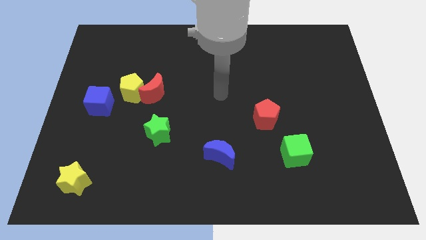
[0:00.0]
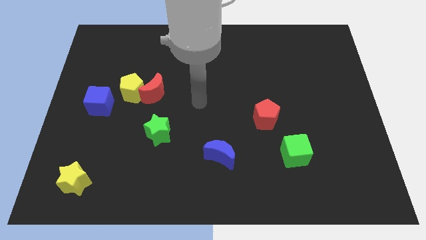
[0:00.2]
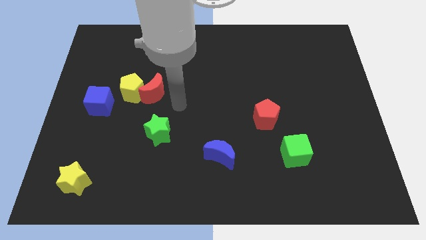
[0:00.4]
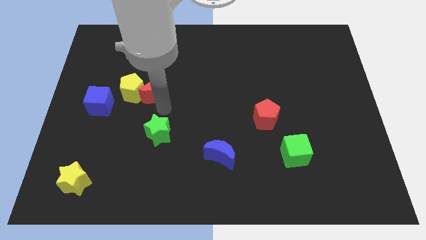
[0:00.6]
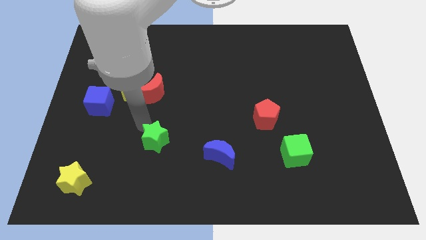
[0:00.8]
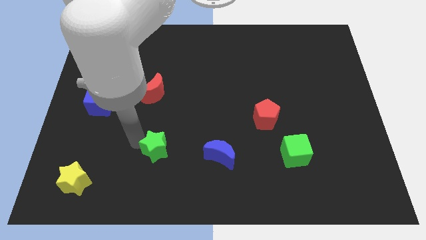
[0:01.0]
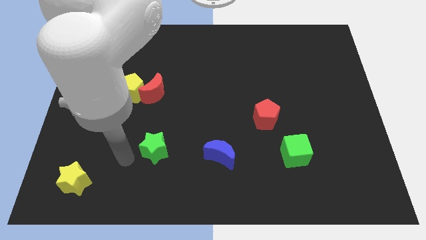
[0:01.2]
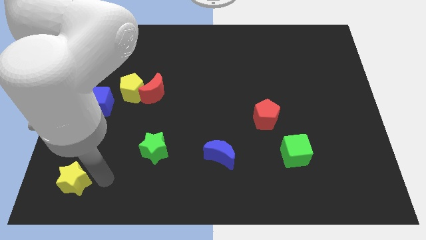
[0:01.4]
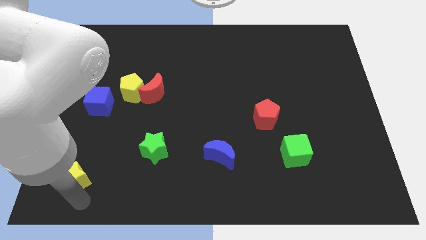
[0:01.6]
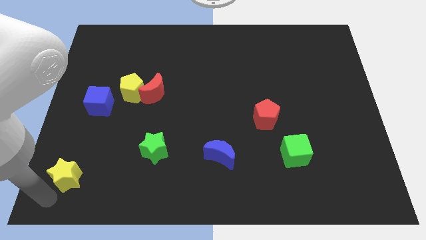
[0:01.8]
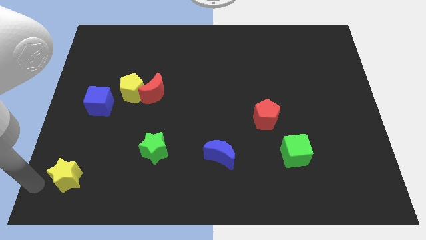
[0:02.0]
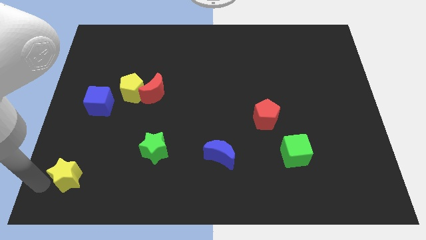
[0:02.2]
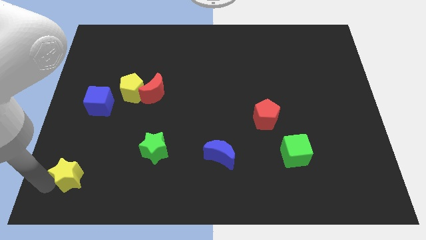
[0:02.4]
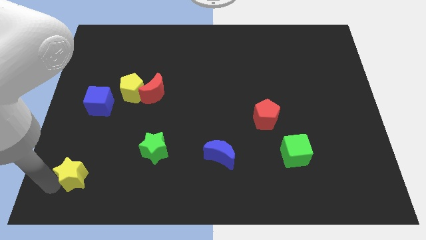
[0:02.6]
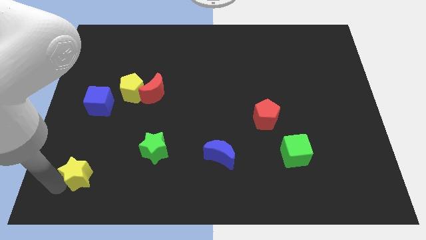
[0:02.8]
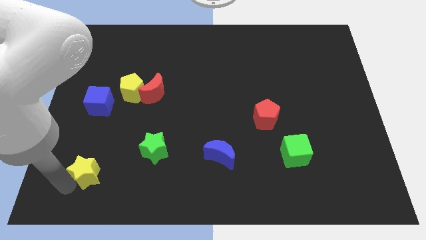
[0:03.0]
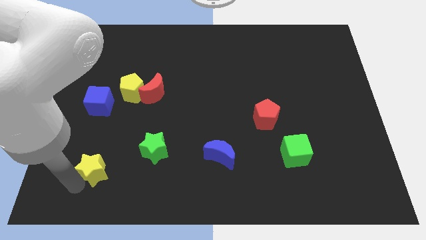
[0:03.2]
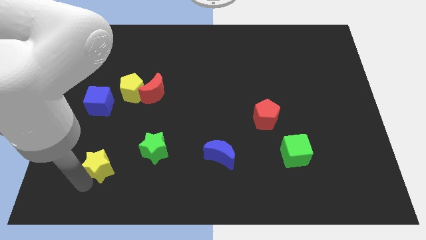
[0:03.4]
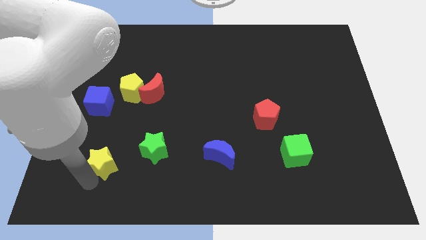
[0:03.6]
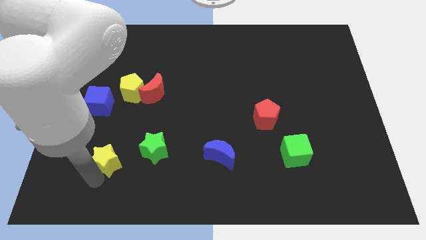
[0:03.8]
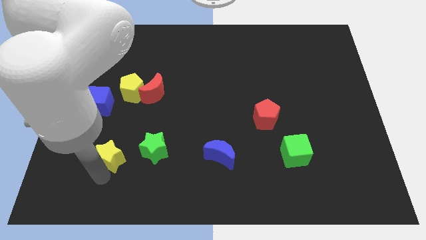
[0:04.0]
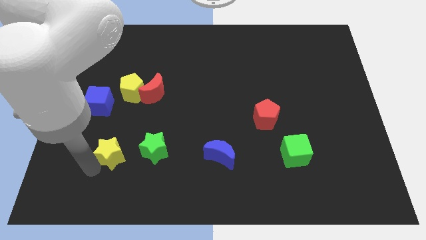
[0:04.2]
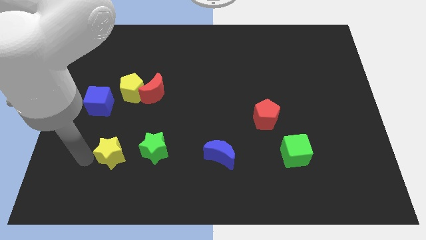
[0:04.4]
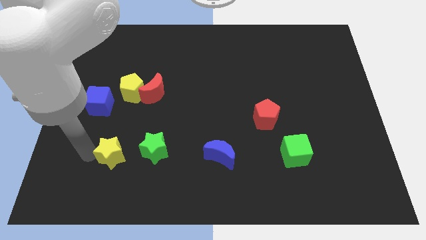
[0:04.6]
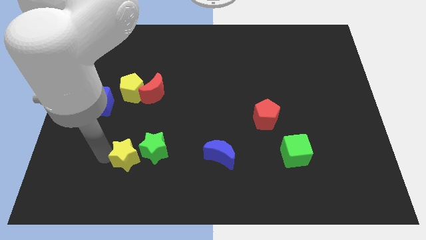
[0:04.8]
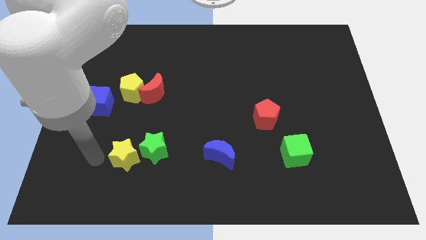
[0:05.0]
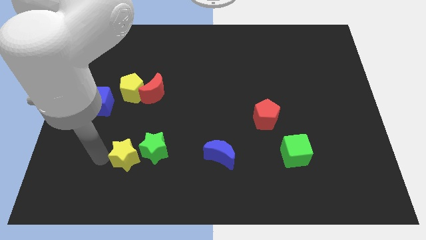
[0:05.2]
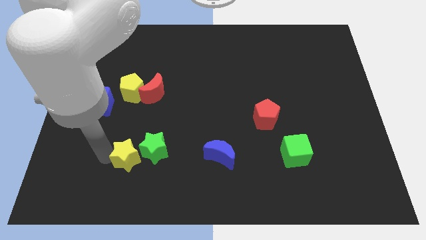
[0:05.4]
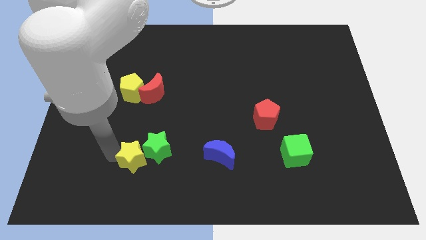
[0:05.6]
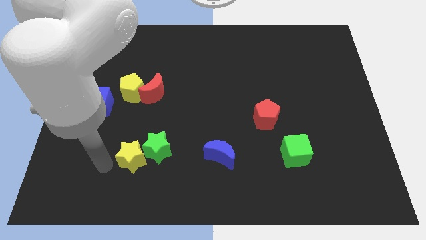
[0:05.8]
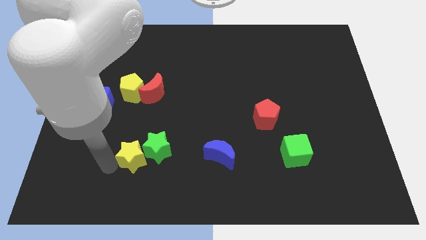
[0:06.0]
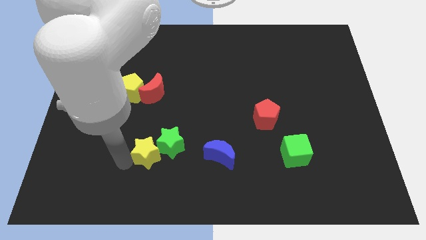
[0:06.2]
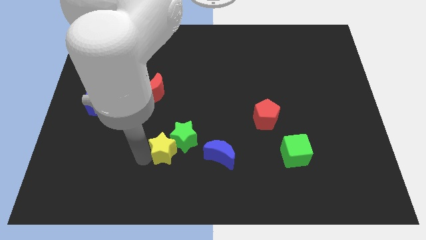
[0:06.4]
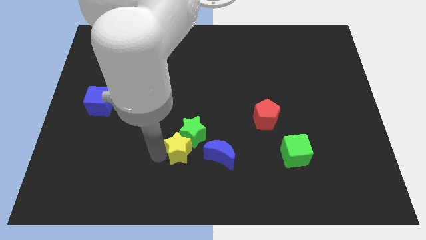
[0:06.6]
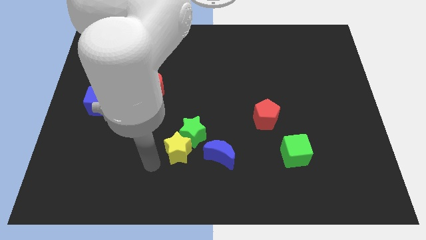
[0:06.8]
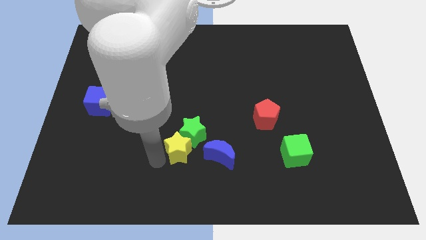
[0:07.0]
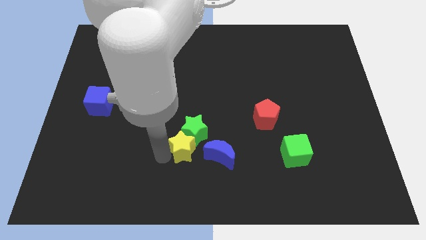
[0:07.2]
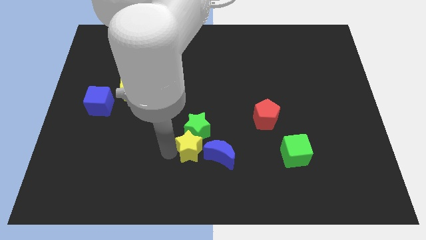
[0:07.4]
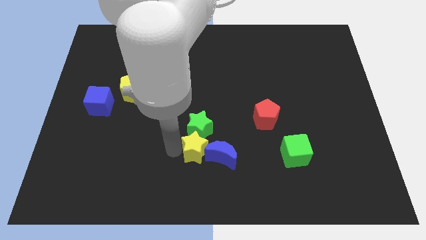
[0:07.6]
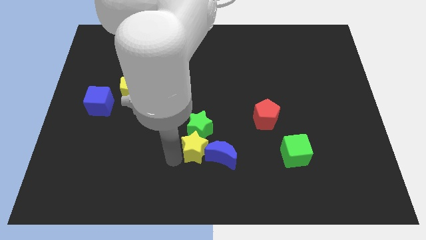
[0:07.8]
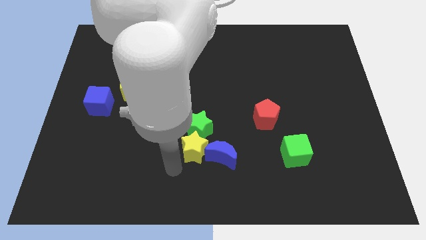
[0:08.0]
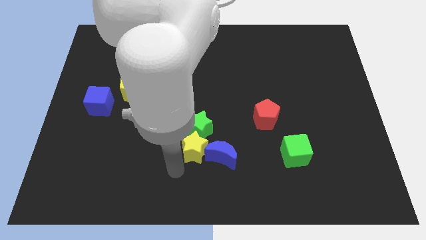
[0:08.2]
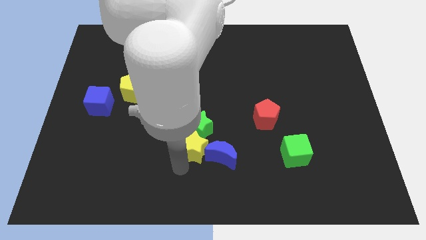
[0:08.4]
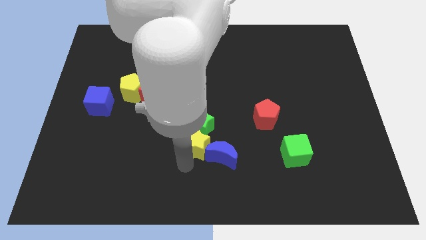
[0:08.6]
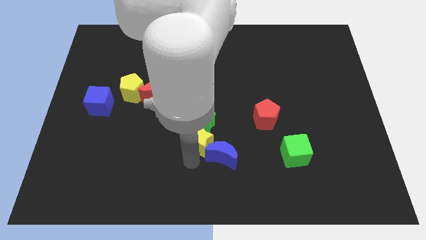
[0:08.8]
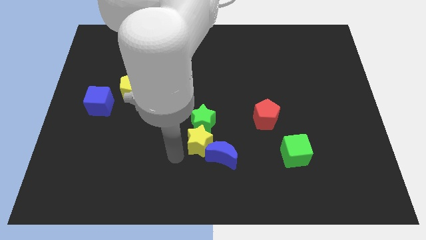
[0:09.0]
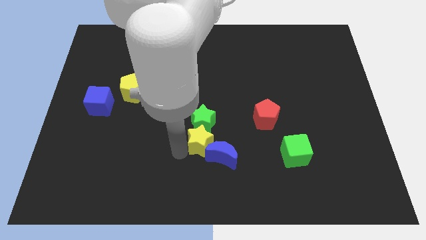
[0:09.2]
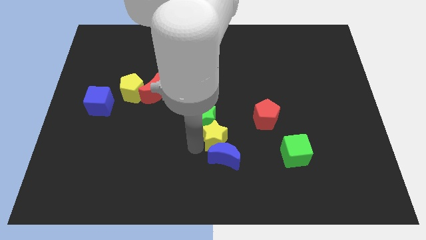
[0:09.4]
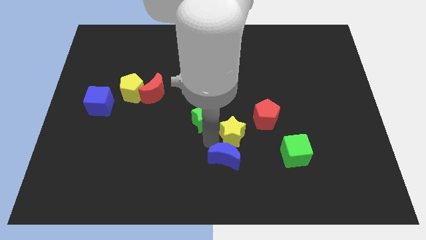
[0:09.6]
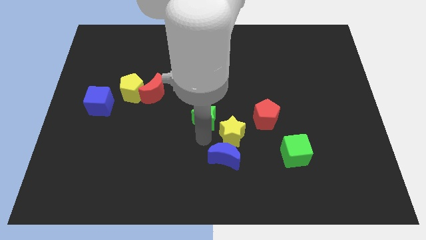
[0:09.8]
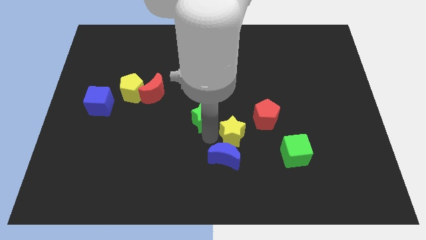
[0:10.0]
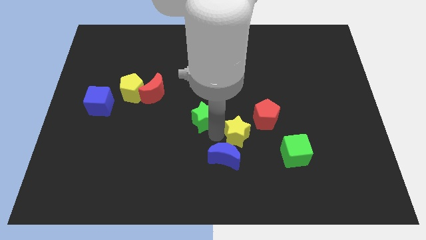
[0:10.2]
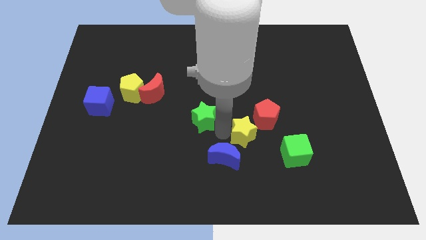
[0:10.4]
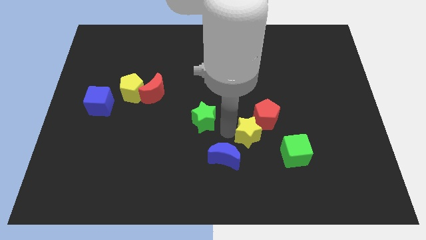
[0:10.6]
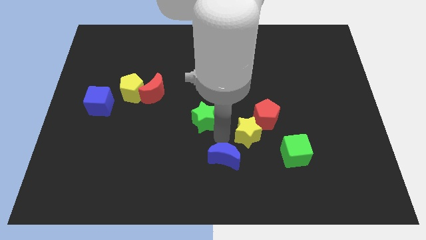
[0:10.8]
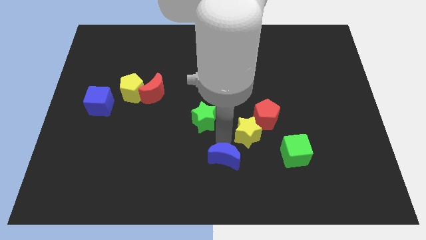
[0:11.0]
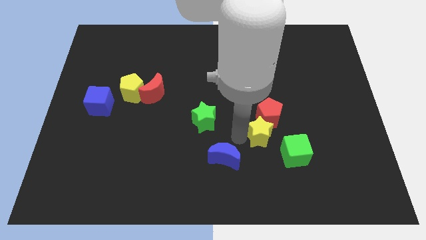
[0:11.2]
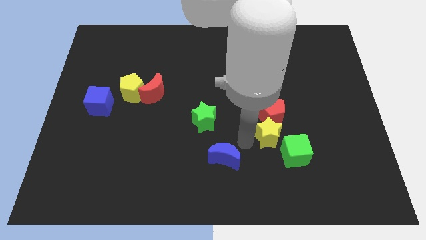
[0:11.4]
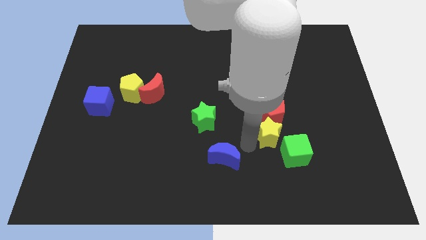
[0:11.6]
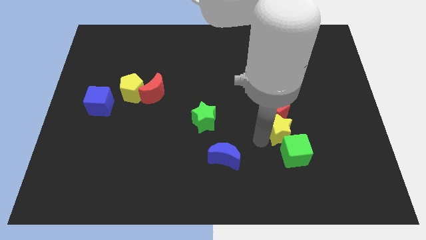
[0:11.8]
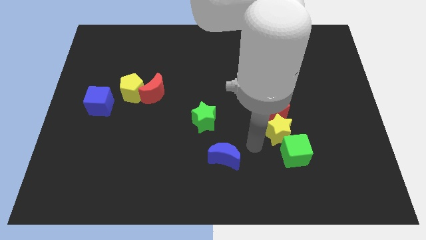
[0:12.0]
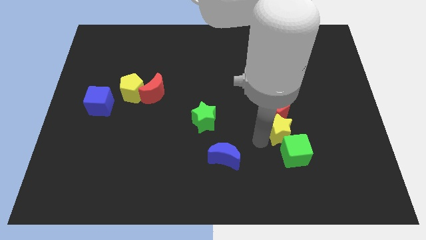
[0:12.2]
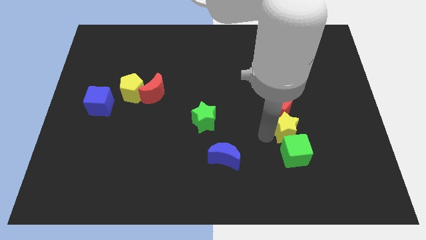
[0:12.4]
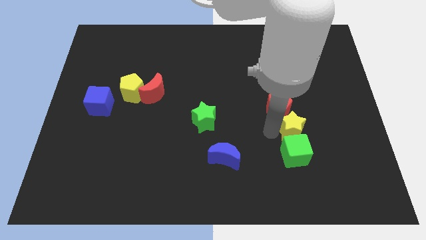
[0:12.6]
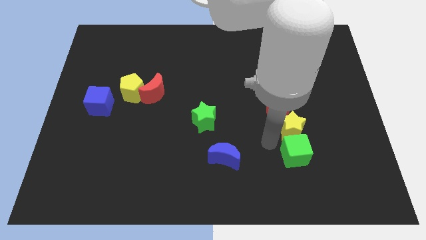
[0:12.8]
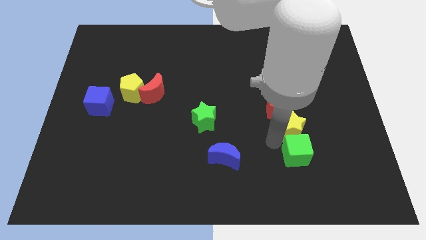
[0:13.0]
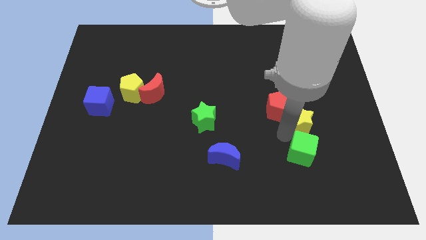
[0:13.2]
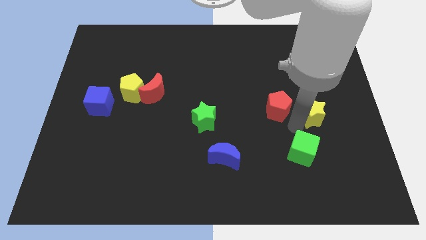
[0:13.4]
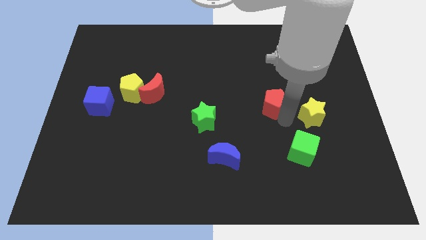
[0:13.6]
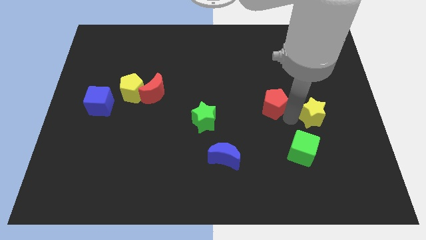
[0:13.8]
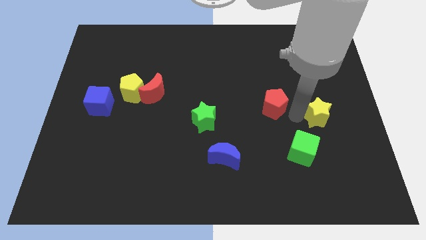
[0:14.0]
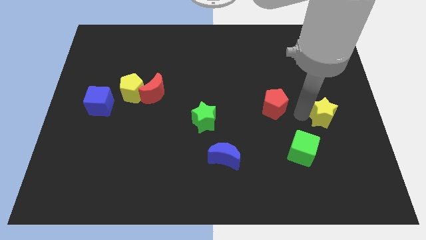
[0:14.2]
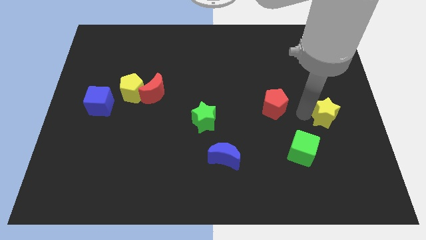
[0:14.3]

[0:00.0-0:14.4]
move the yellow star to the center right
